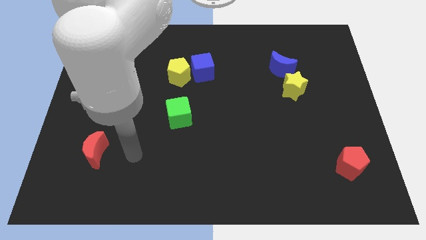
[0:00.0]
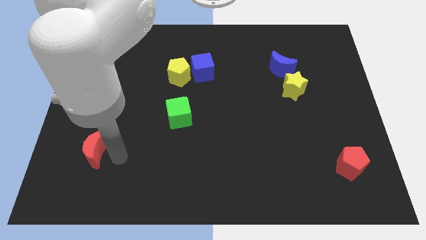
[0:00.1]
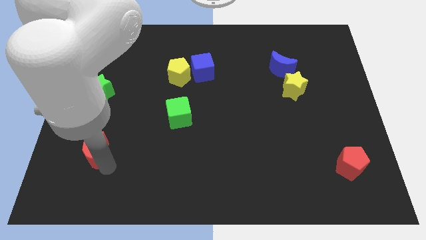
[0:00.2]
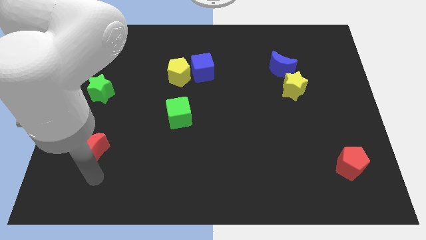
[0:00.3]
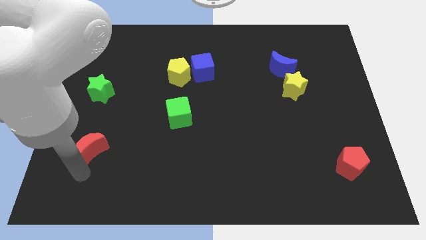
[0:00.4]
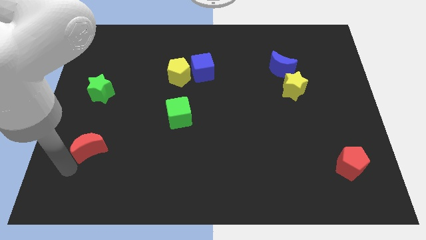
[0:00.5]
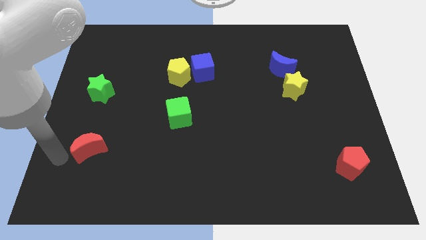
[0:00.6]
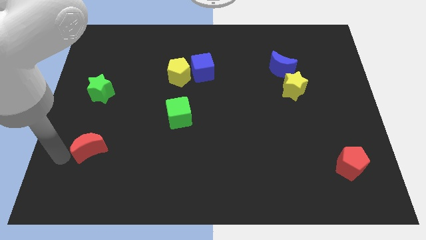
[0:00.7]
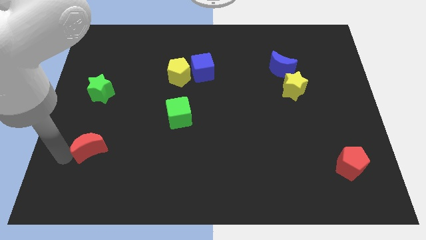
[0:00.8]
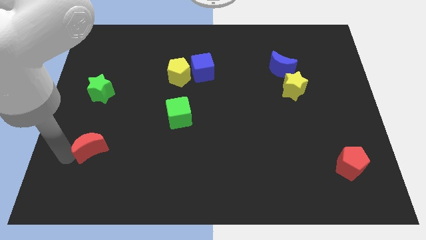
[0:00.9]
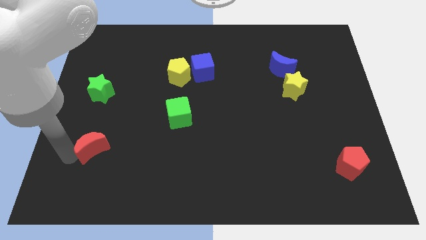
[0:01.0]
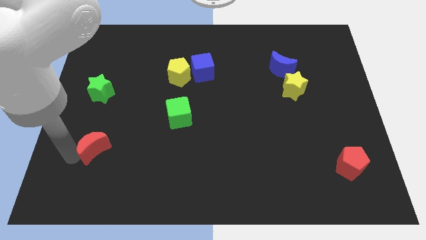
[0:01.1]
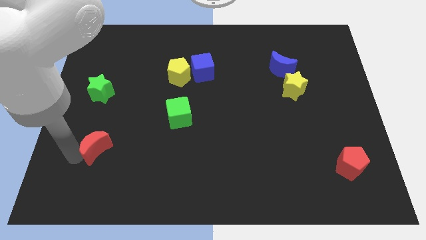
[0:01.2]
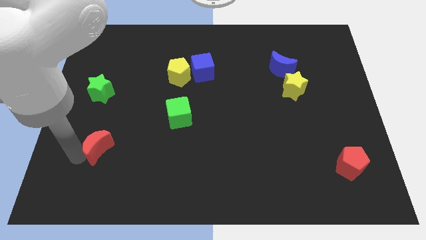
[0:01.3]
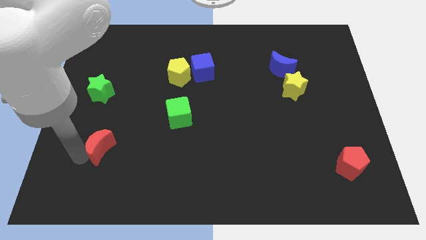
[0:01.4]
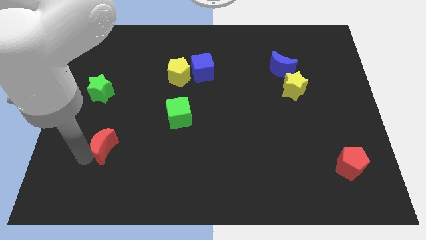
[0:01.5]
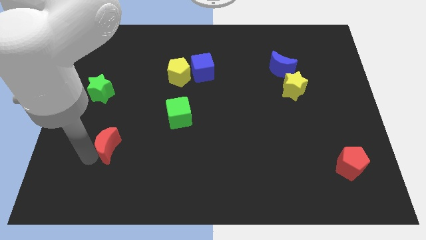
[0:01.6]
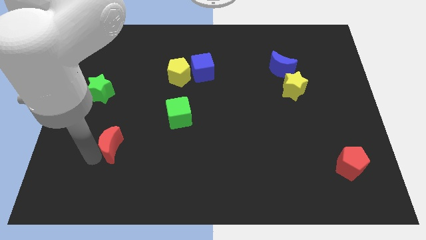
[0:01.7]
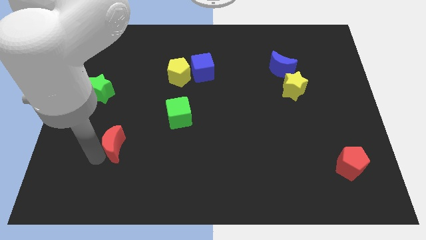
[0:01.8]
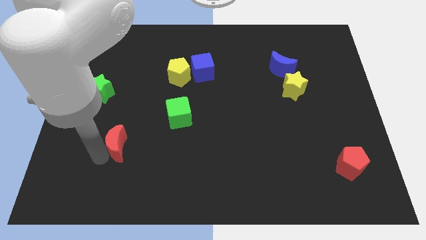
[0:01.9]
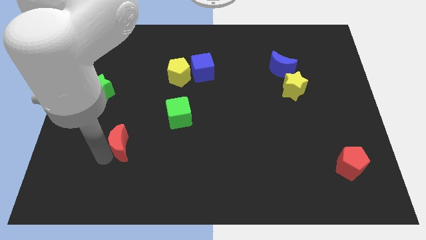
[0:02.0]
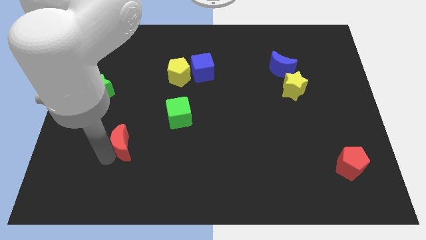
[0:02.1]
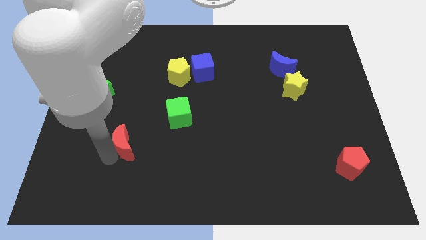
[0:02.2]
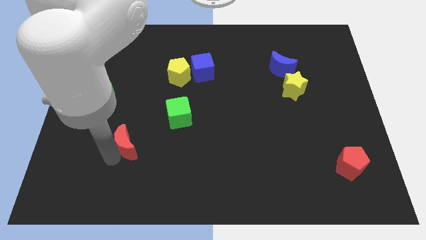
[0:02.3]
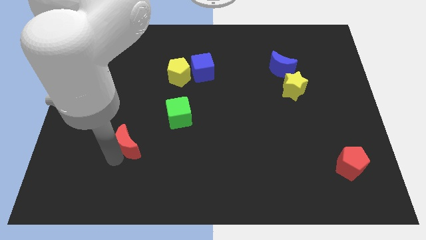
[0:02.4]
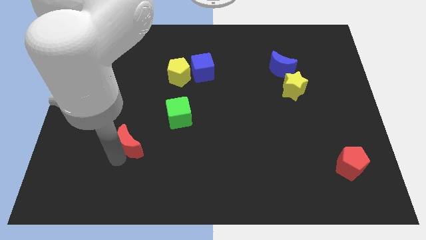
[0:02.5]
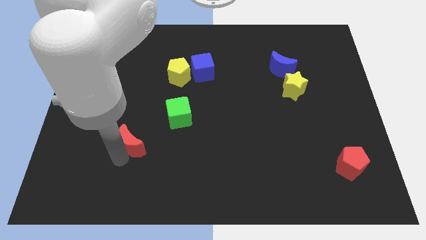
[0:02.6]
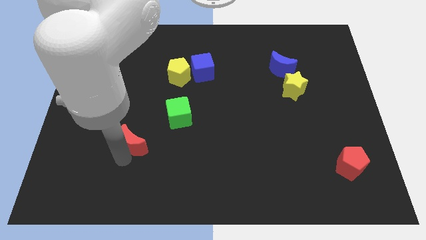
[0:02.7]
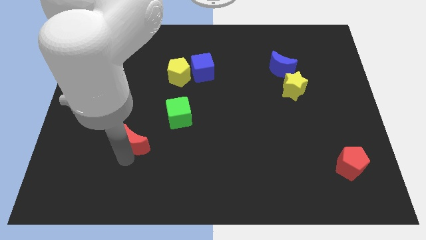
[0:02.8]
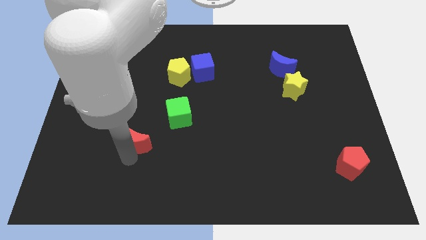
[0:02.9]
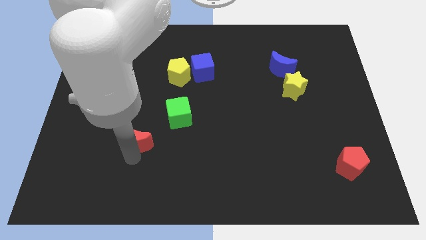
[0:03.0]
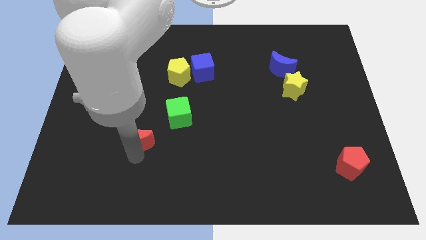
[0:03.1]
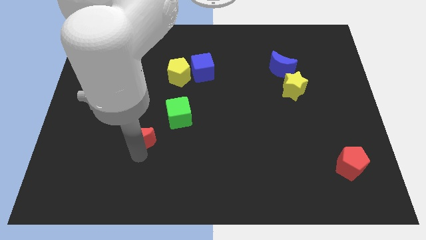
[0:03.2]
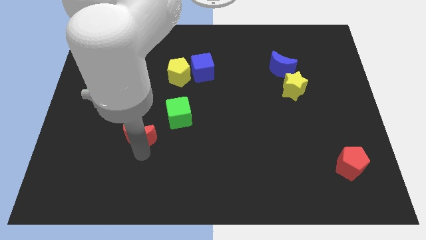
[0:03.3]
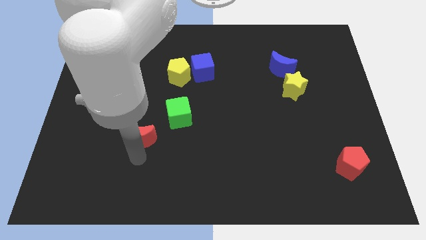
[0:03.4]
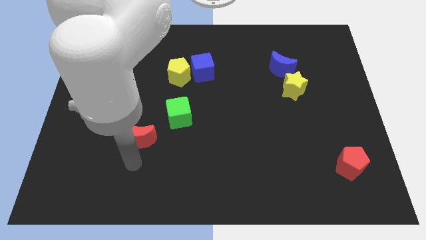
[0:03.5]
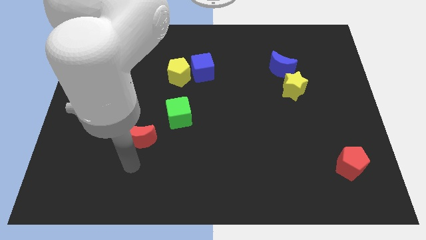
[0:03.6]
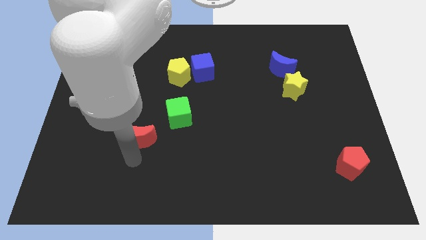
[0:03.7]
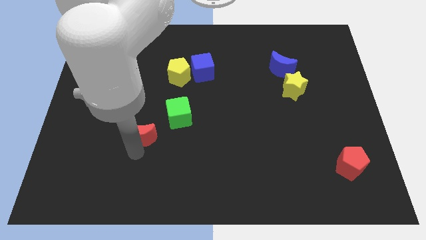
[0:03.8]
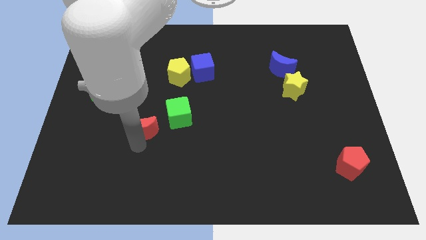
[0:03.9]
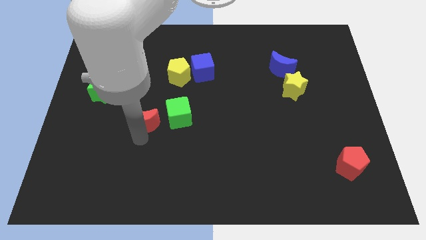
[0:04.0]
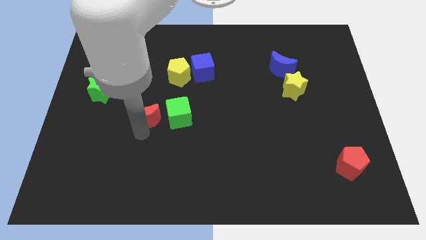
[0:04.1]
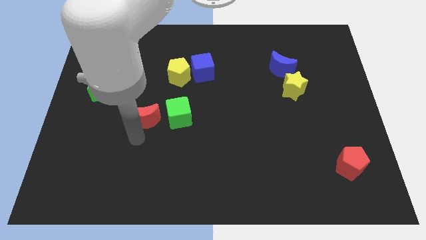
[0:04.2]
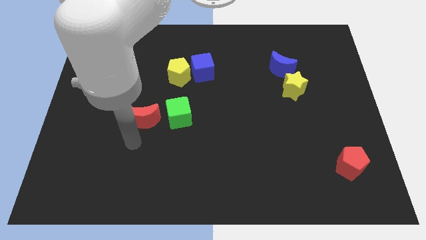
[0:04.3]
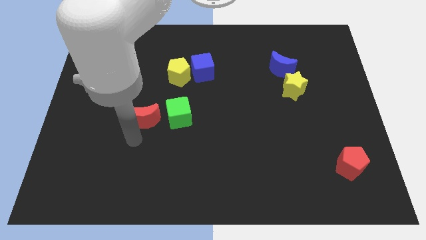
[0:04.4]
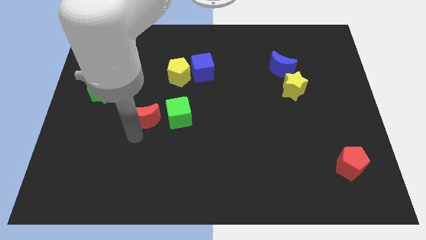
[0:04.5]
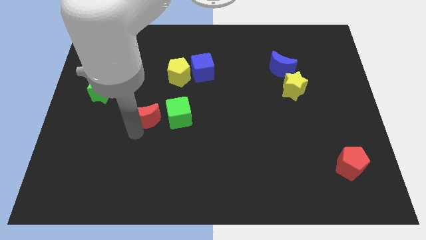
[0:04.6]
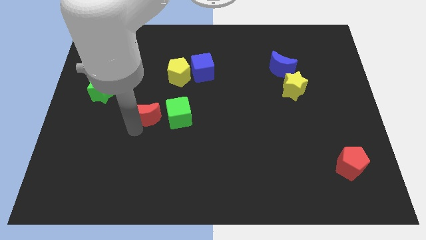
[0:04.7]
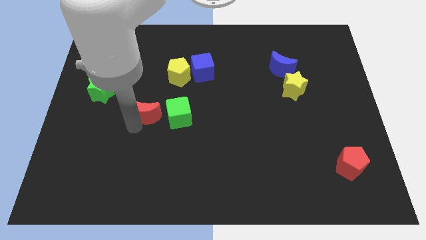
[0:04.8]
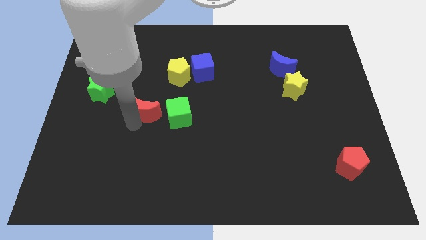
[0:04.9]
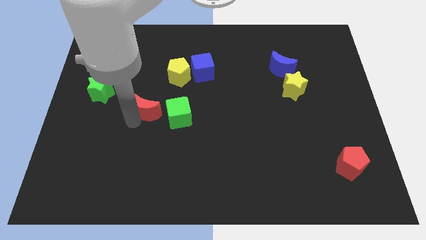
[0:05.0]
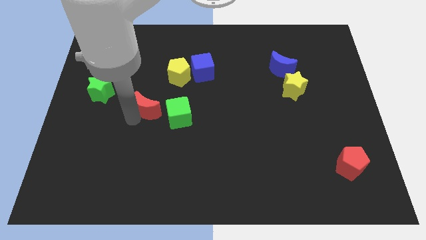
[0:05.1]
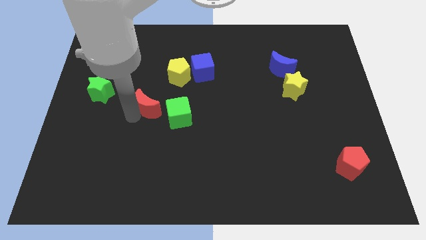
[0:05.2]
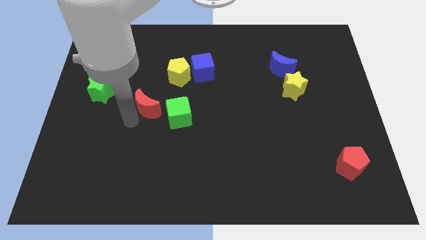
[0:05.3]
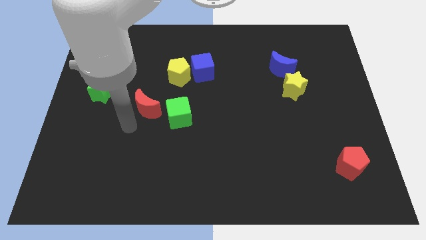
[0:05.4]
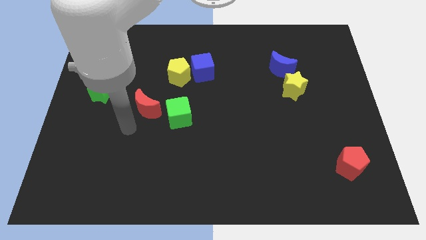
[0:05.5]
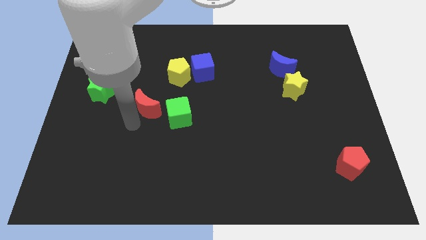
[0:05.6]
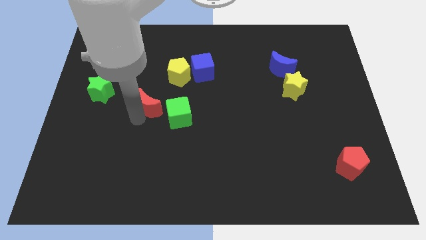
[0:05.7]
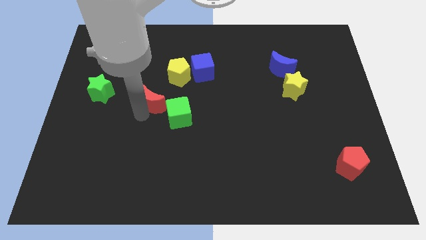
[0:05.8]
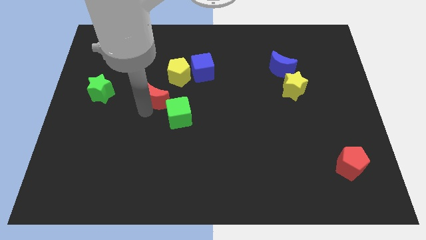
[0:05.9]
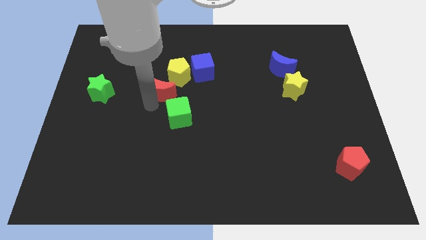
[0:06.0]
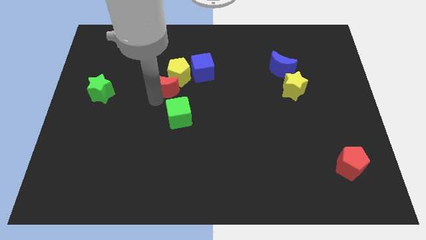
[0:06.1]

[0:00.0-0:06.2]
put the red moon towards the yellow pentagon

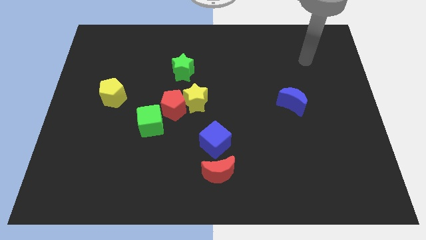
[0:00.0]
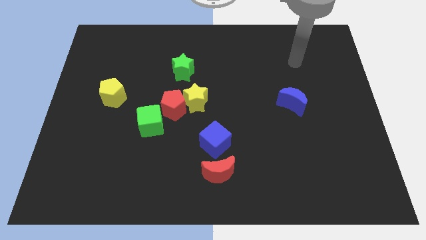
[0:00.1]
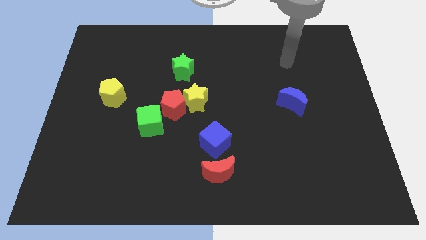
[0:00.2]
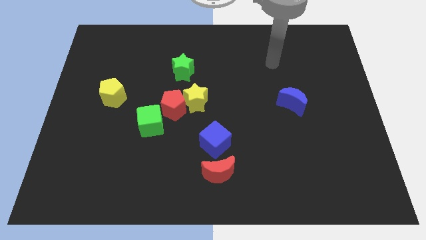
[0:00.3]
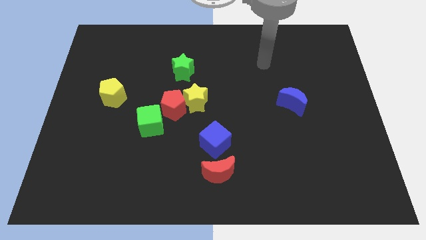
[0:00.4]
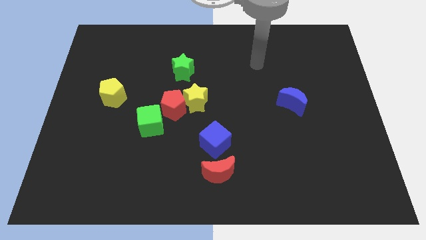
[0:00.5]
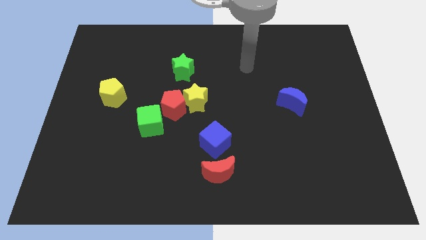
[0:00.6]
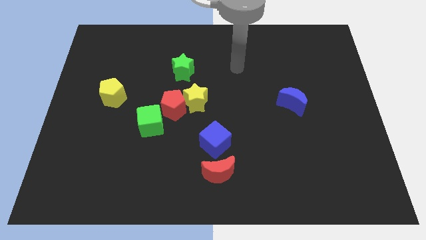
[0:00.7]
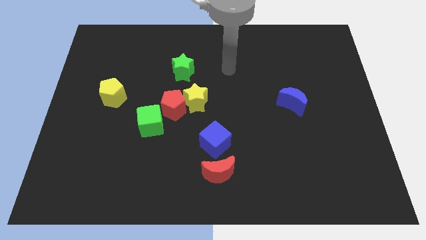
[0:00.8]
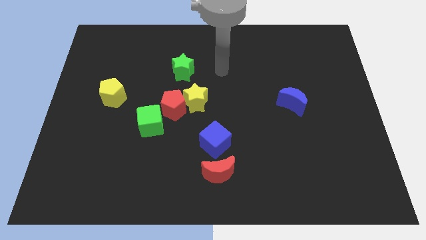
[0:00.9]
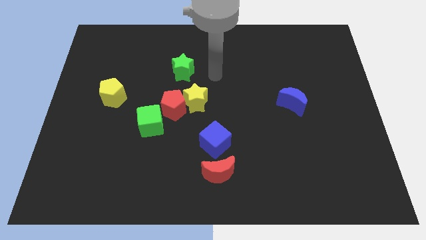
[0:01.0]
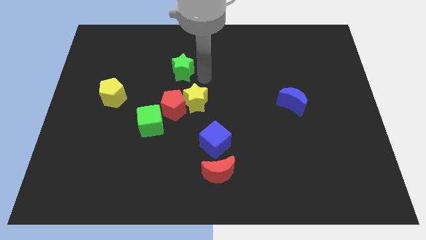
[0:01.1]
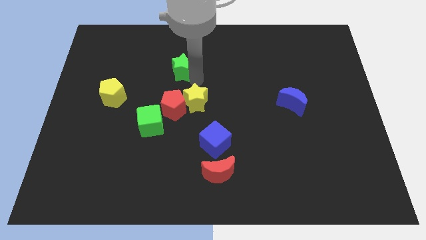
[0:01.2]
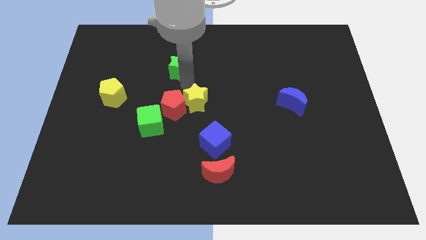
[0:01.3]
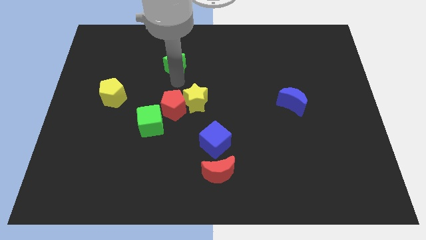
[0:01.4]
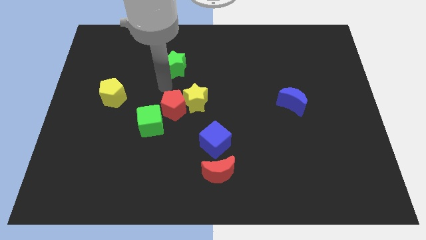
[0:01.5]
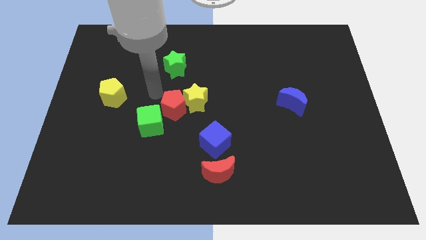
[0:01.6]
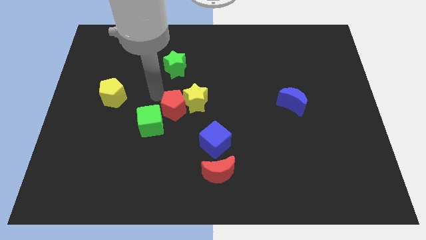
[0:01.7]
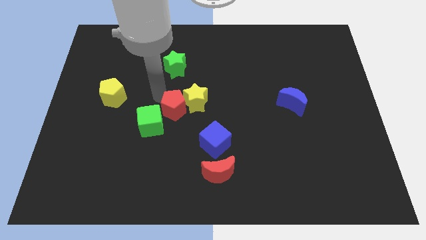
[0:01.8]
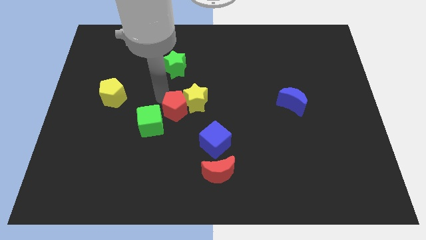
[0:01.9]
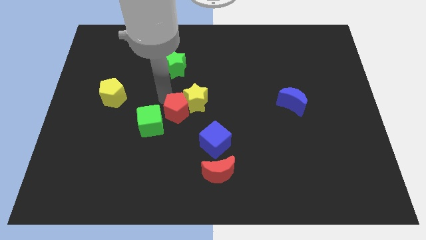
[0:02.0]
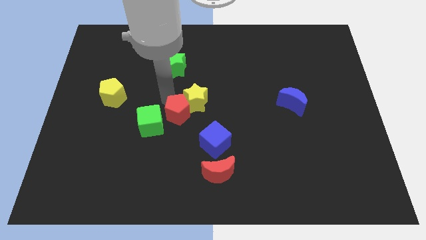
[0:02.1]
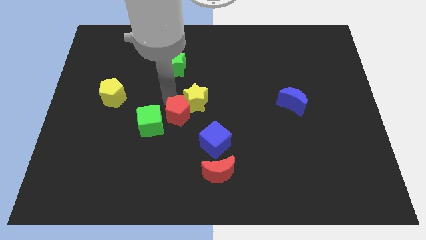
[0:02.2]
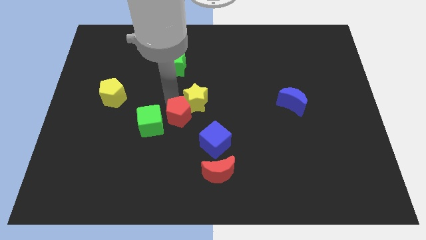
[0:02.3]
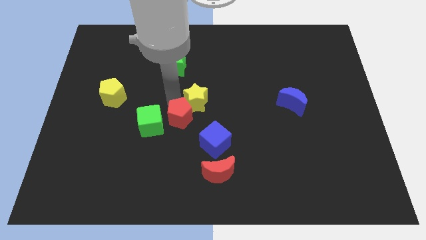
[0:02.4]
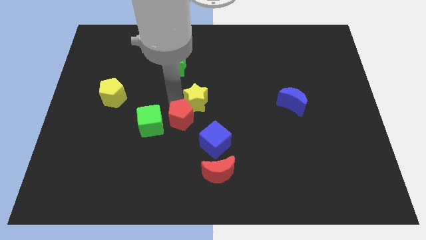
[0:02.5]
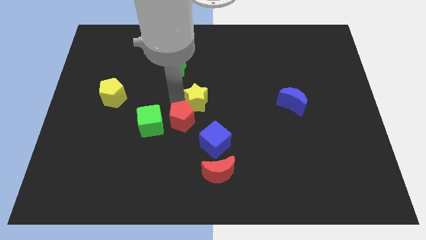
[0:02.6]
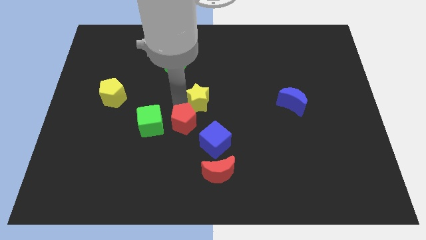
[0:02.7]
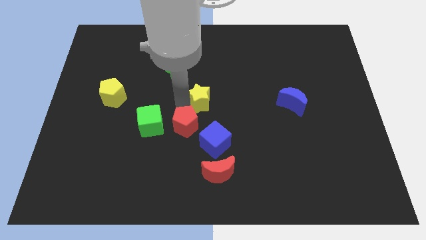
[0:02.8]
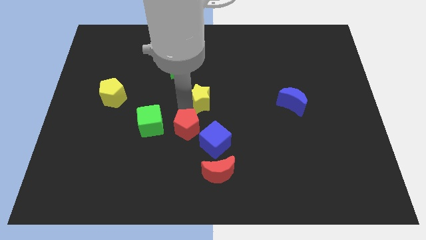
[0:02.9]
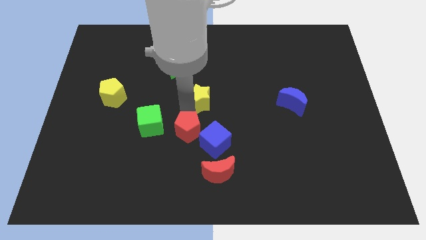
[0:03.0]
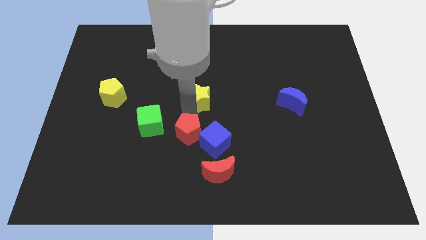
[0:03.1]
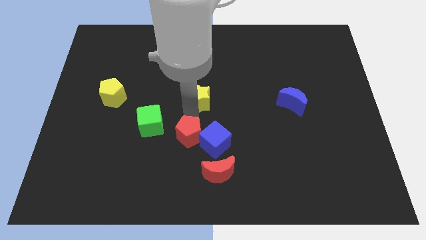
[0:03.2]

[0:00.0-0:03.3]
slide the red pentagon towards the blue cube
